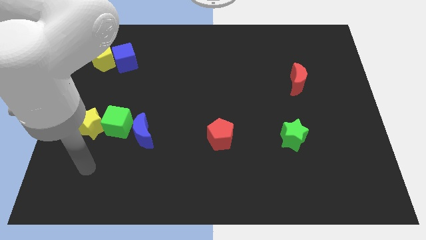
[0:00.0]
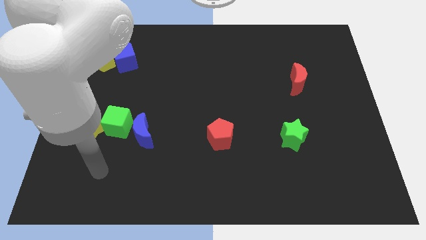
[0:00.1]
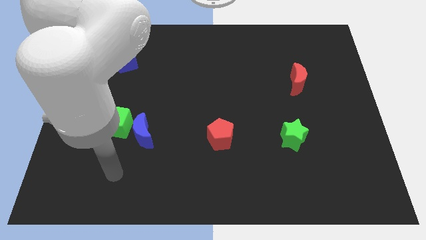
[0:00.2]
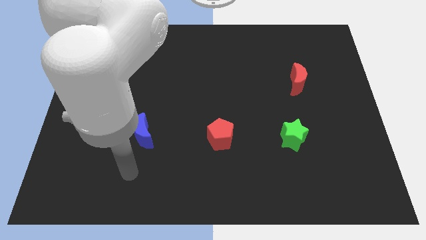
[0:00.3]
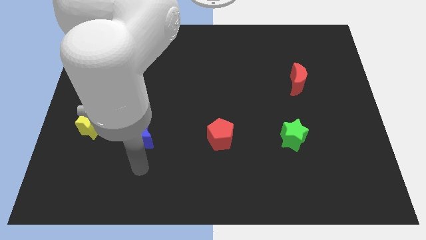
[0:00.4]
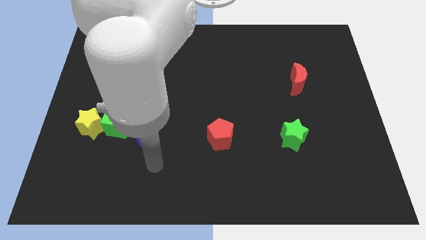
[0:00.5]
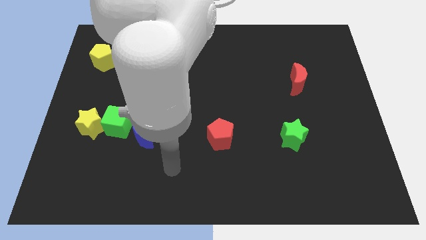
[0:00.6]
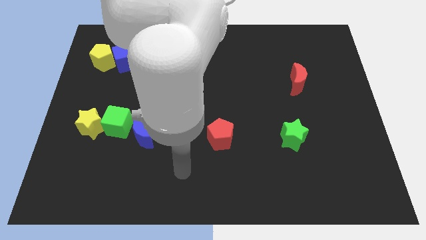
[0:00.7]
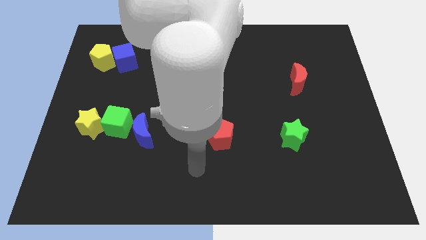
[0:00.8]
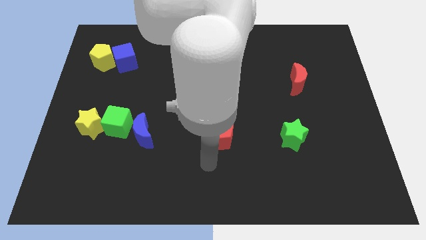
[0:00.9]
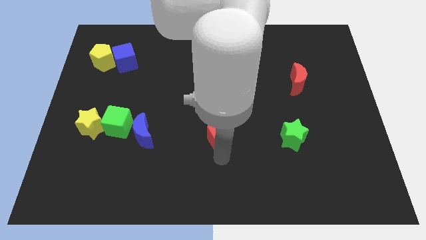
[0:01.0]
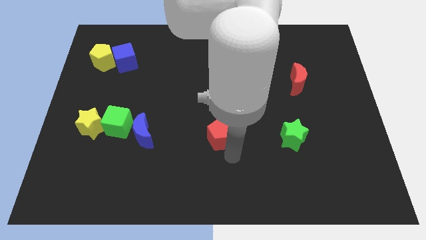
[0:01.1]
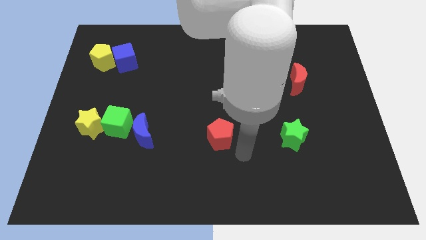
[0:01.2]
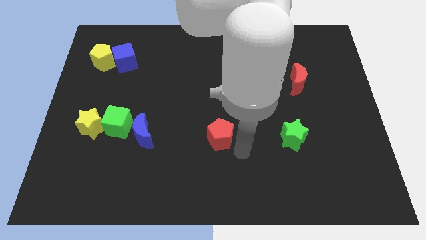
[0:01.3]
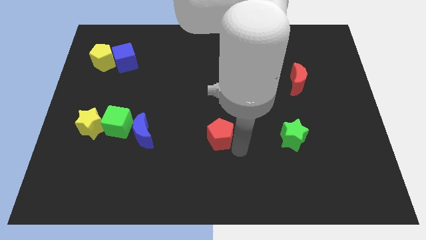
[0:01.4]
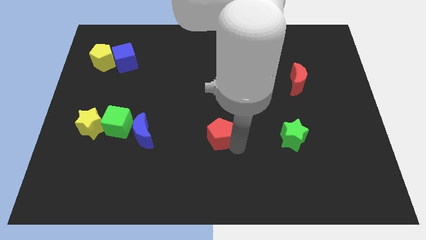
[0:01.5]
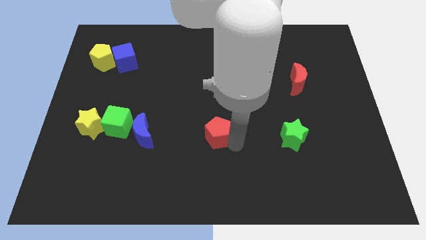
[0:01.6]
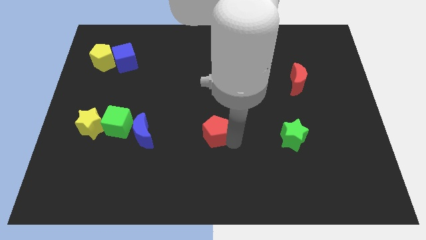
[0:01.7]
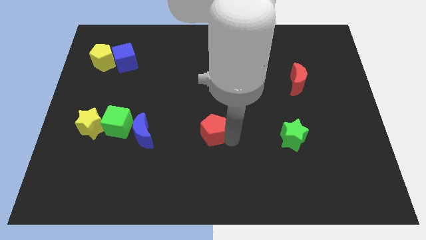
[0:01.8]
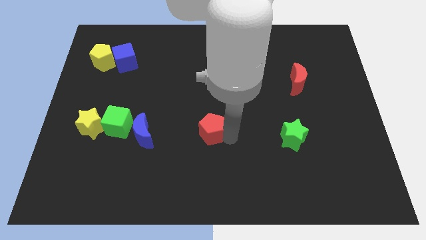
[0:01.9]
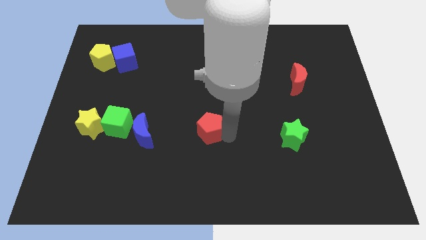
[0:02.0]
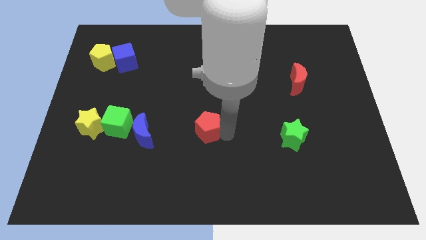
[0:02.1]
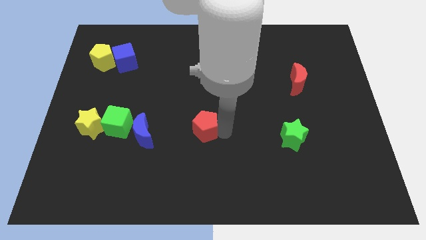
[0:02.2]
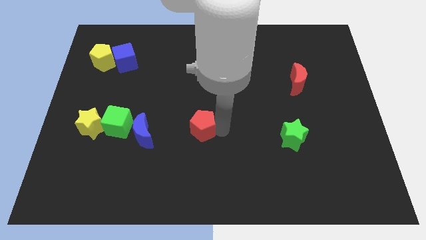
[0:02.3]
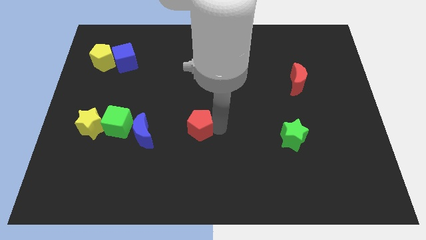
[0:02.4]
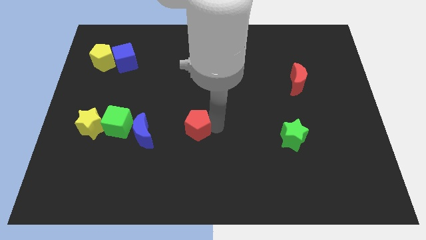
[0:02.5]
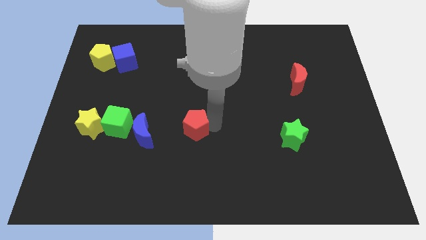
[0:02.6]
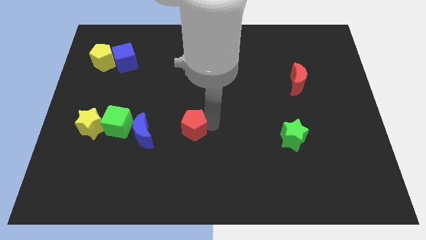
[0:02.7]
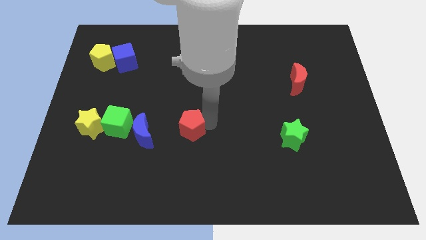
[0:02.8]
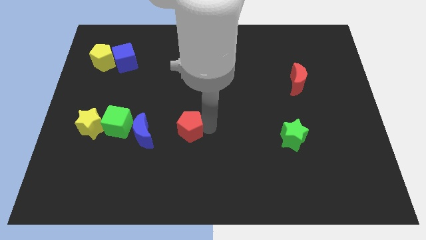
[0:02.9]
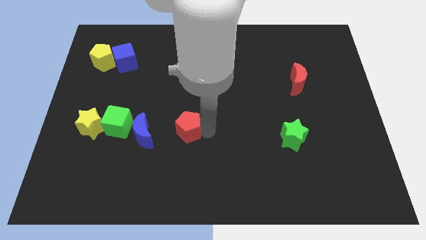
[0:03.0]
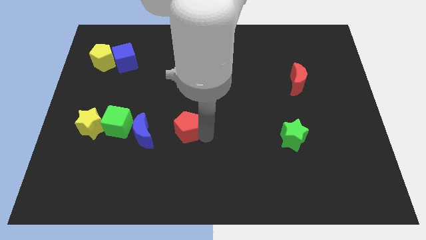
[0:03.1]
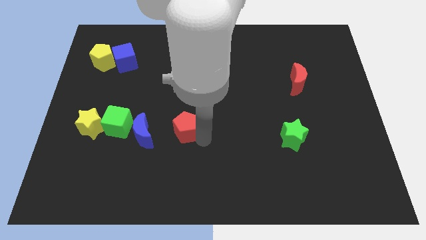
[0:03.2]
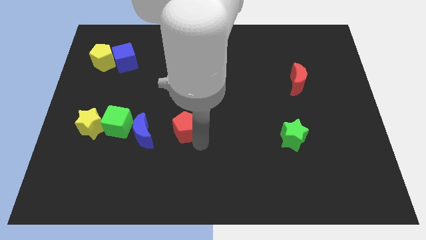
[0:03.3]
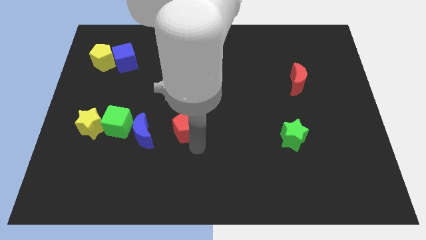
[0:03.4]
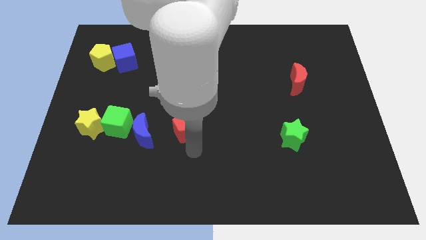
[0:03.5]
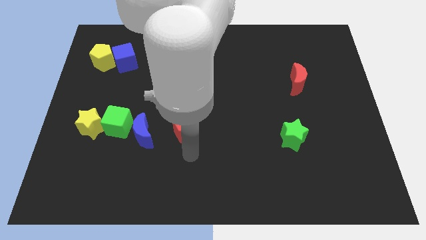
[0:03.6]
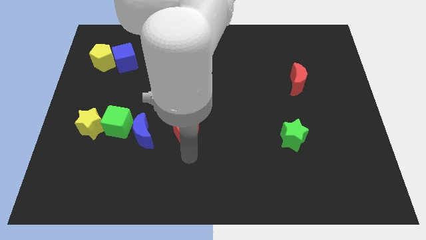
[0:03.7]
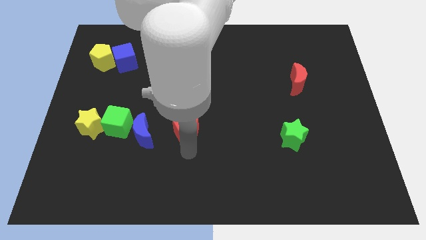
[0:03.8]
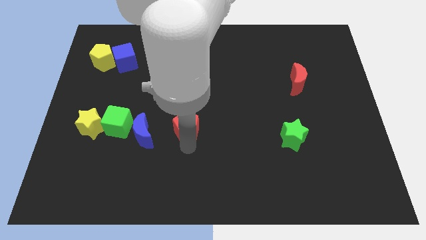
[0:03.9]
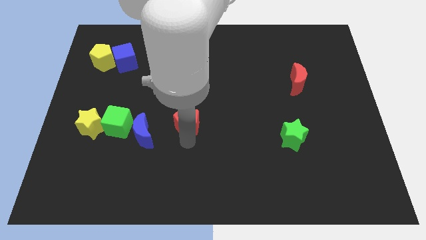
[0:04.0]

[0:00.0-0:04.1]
move the red pentagon a little up and left

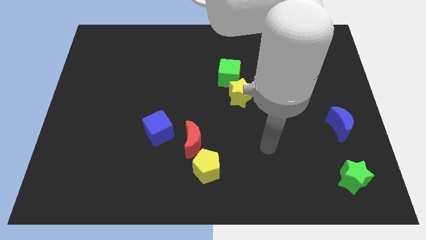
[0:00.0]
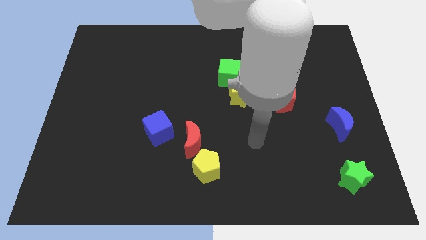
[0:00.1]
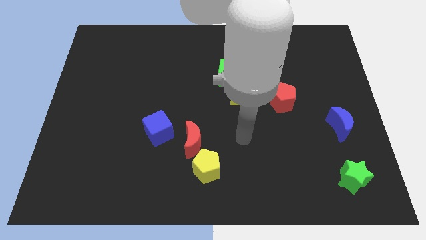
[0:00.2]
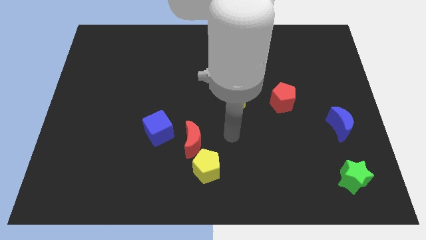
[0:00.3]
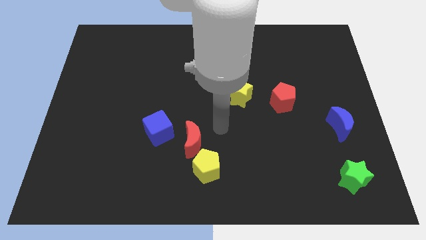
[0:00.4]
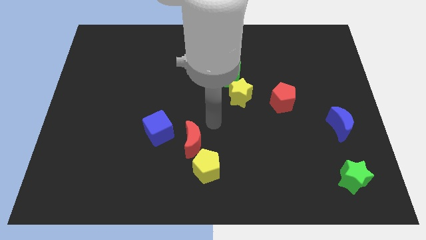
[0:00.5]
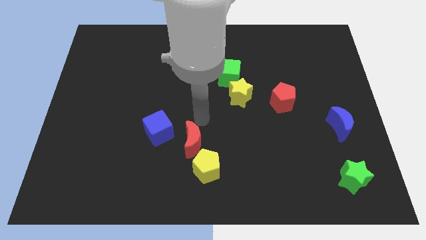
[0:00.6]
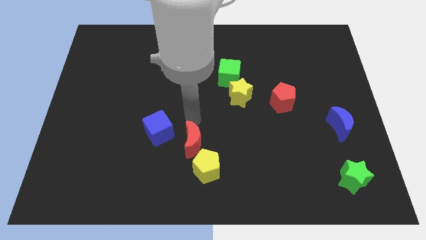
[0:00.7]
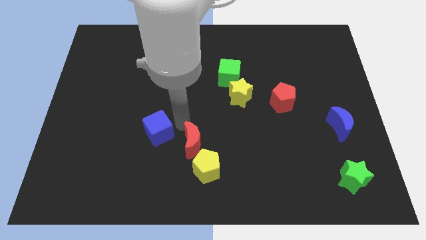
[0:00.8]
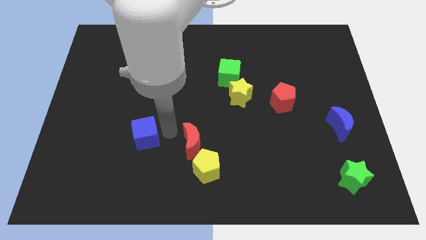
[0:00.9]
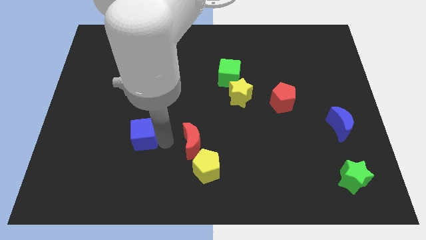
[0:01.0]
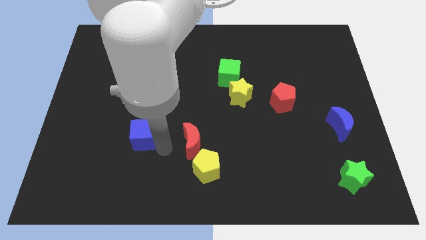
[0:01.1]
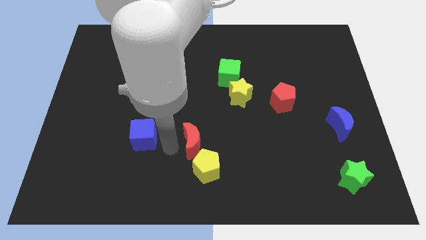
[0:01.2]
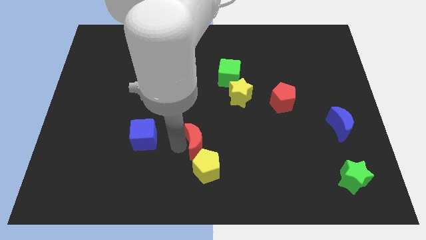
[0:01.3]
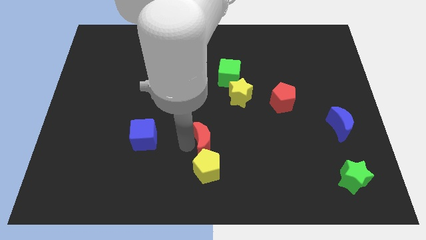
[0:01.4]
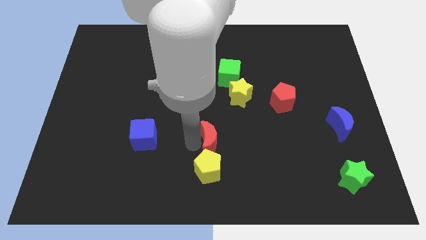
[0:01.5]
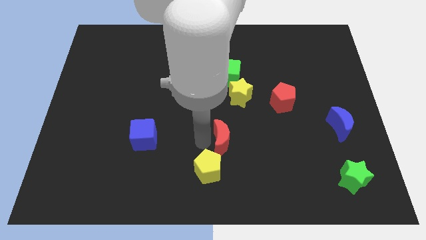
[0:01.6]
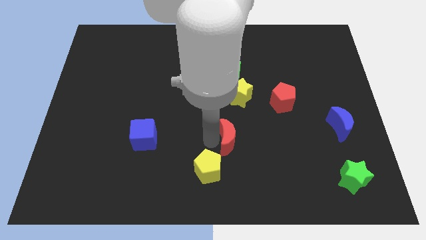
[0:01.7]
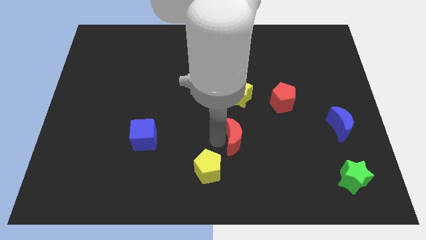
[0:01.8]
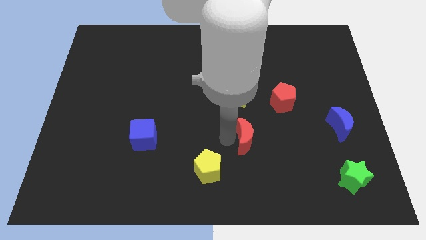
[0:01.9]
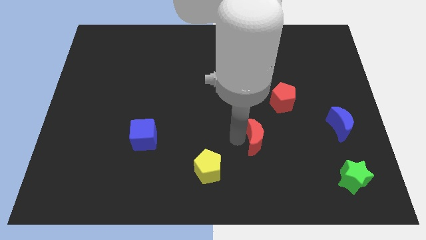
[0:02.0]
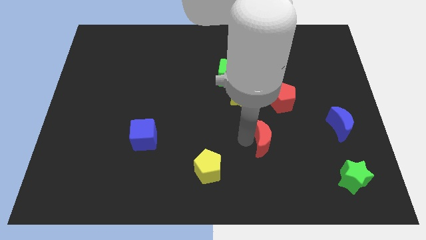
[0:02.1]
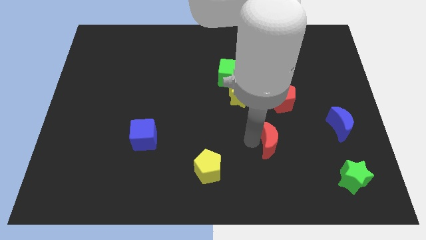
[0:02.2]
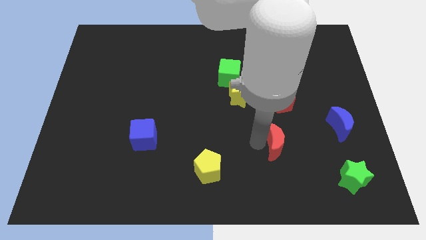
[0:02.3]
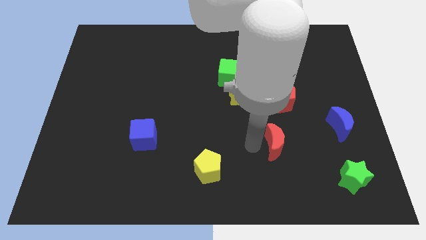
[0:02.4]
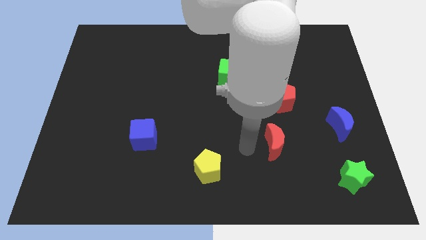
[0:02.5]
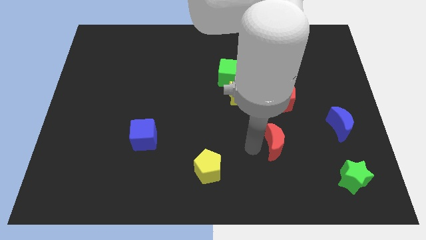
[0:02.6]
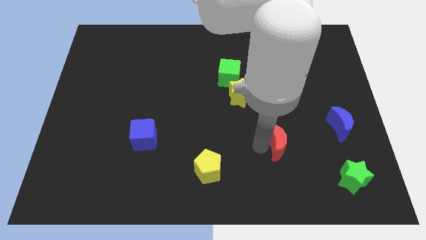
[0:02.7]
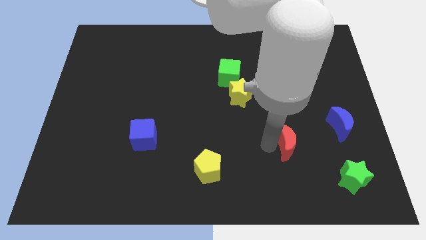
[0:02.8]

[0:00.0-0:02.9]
move the red moon right

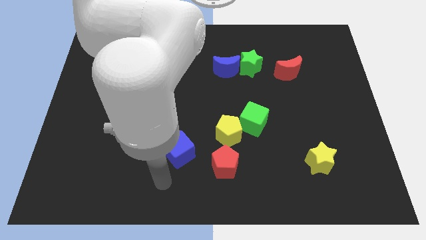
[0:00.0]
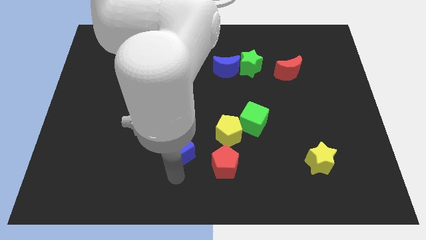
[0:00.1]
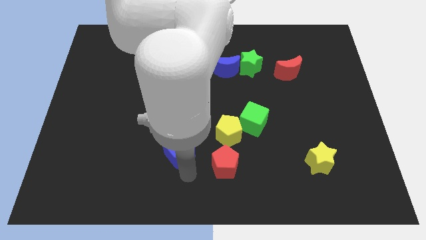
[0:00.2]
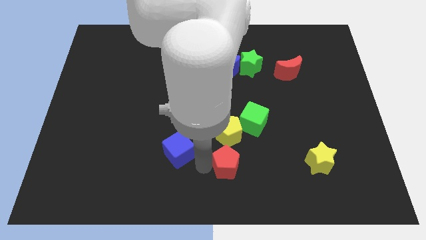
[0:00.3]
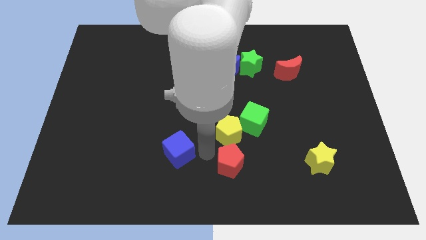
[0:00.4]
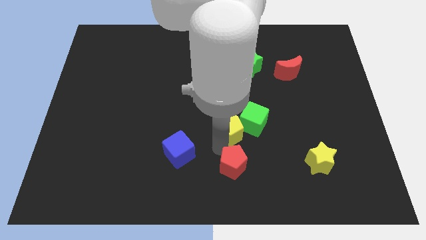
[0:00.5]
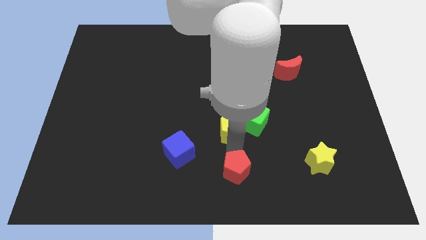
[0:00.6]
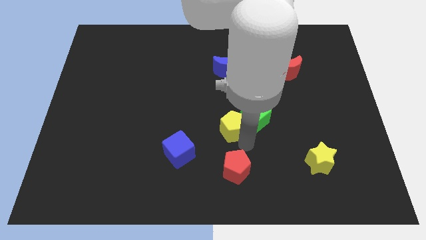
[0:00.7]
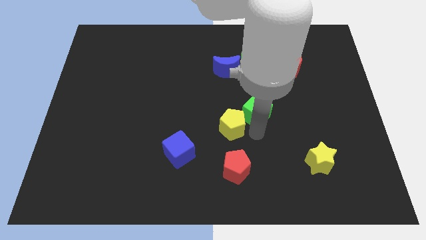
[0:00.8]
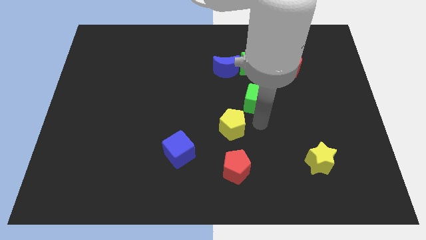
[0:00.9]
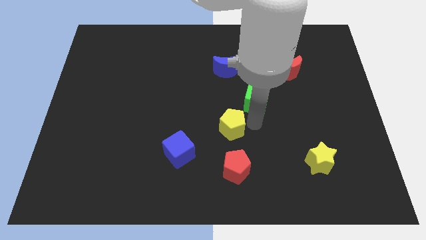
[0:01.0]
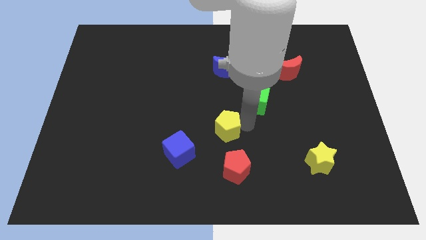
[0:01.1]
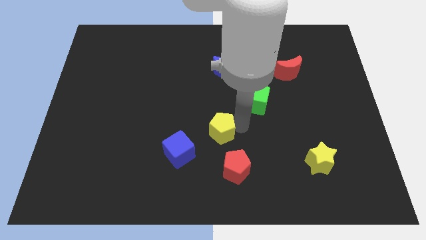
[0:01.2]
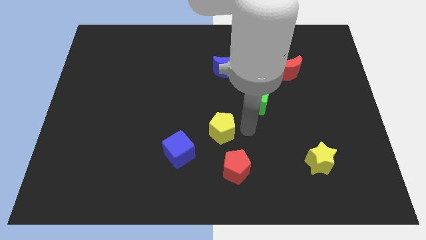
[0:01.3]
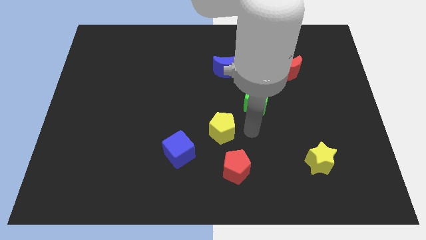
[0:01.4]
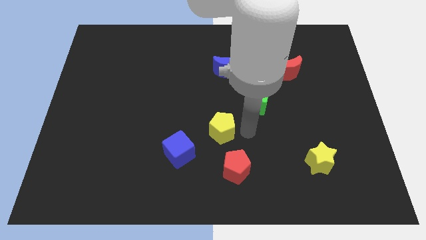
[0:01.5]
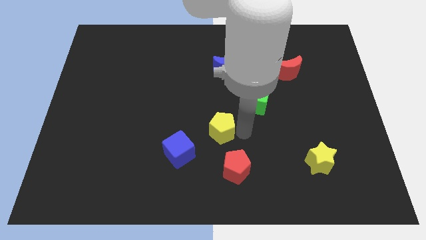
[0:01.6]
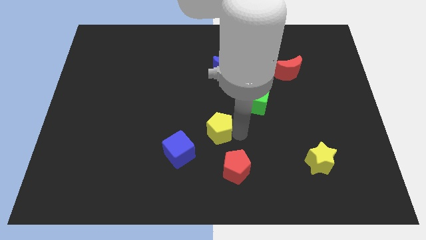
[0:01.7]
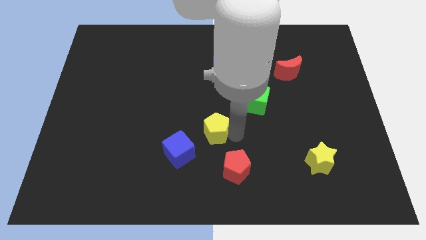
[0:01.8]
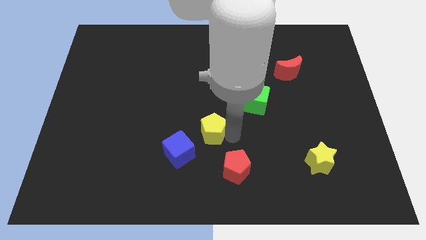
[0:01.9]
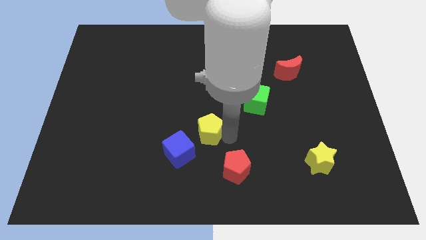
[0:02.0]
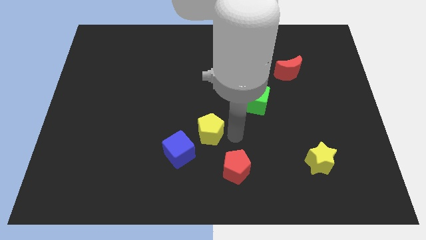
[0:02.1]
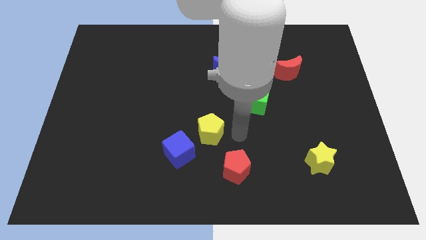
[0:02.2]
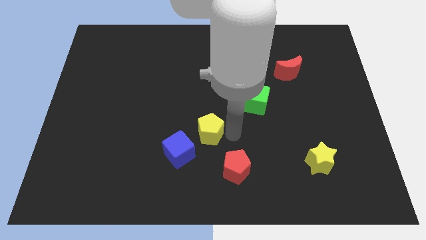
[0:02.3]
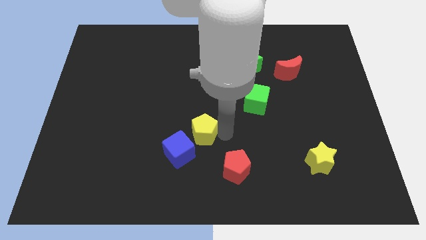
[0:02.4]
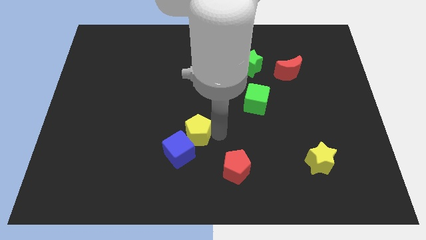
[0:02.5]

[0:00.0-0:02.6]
slide the yellow pentagon a little to the left
